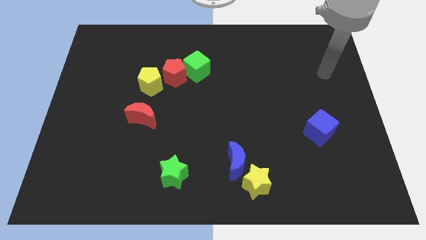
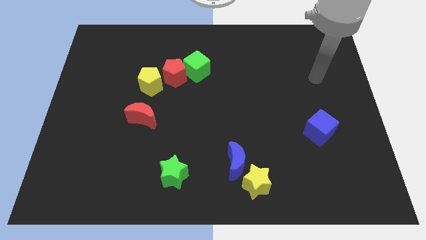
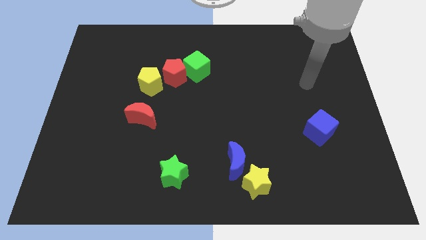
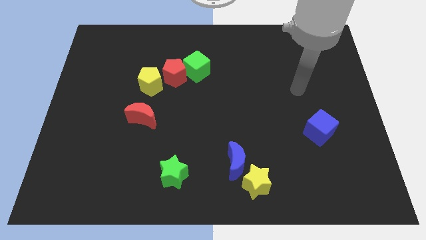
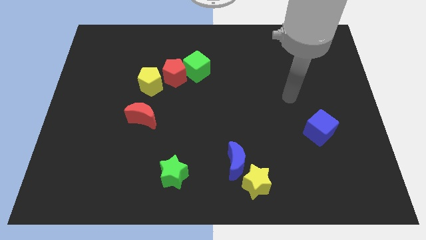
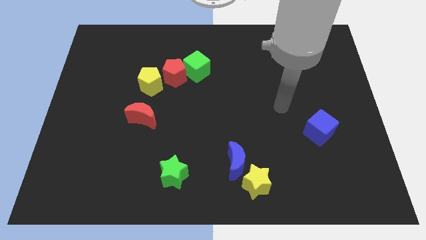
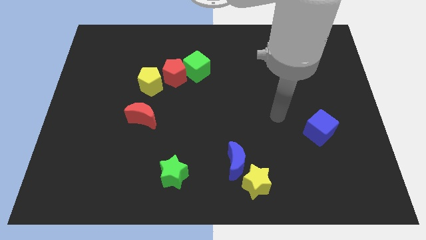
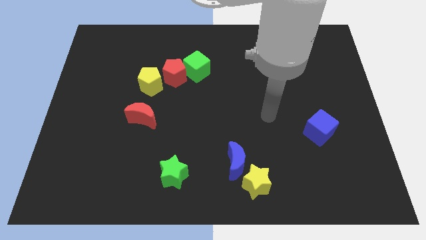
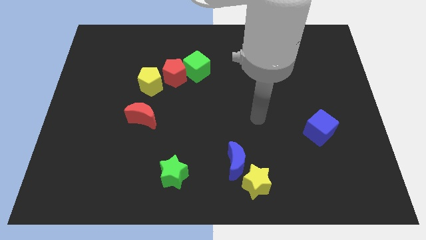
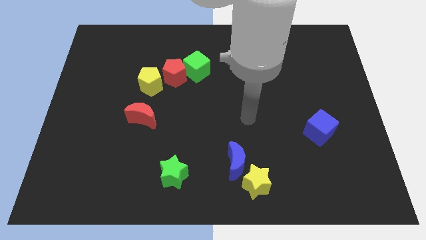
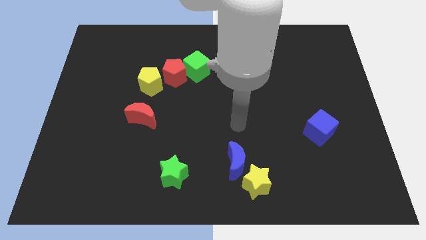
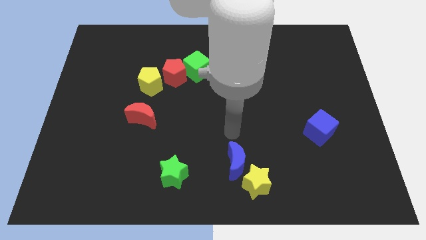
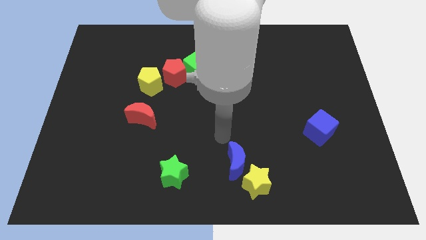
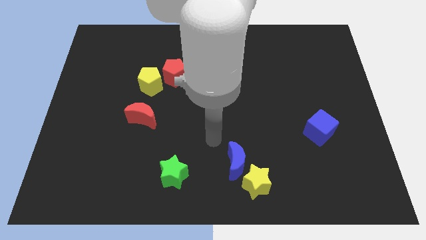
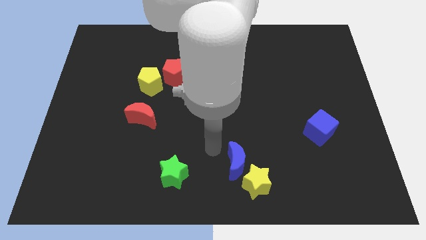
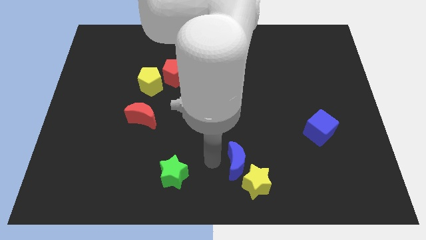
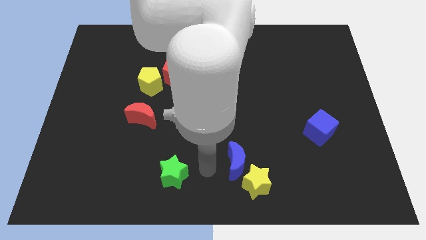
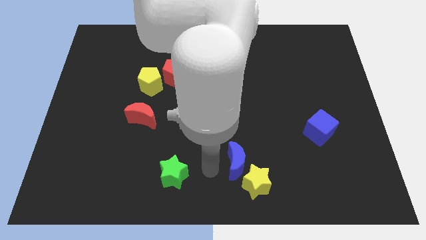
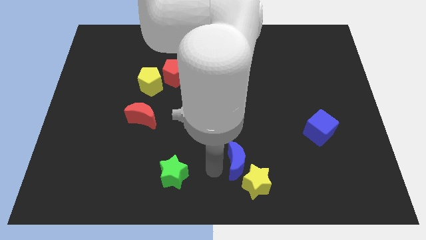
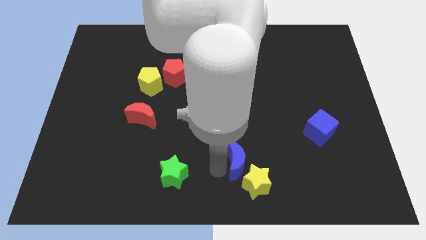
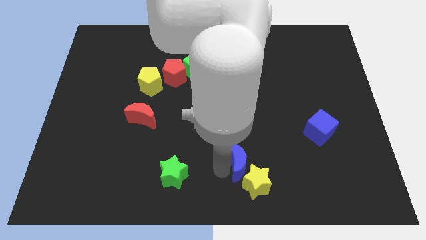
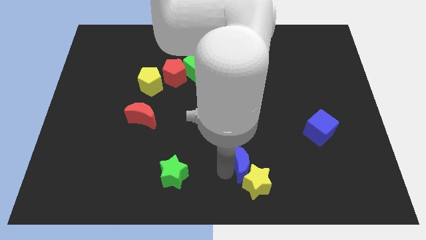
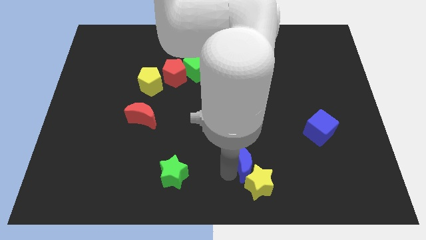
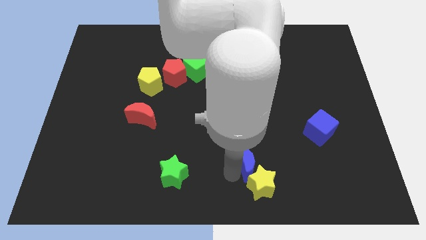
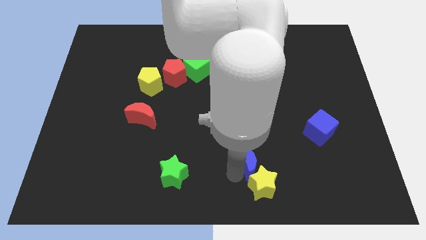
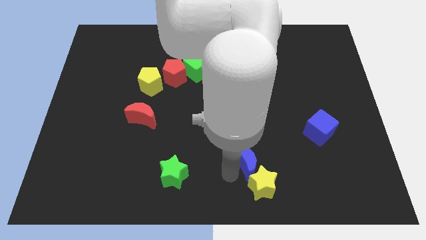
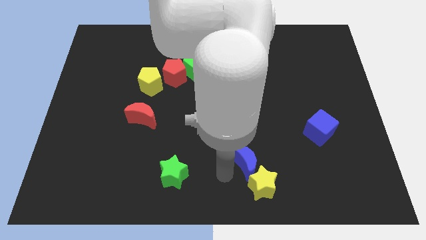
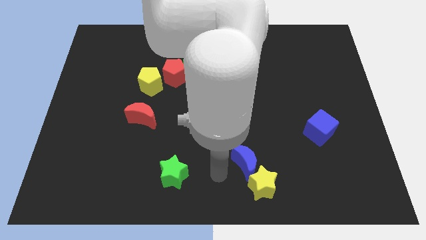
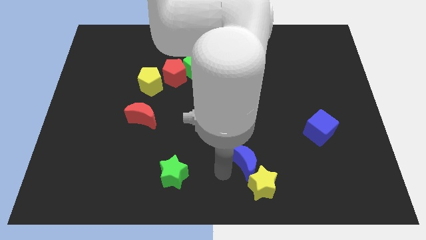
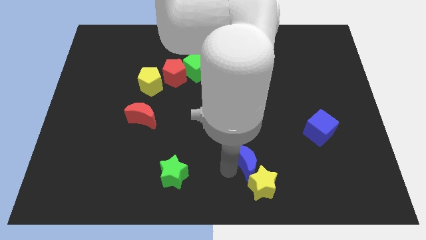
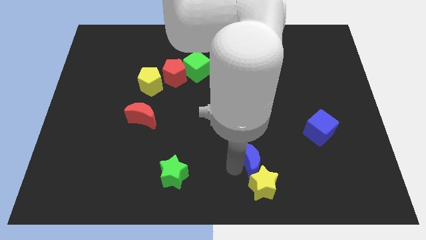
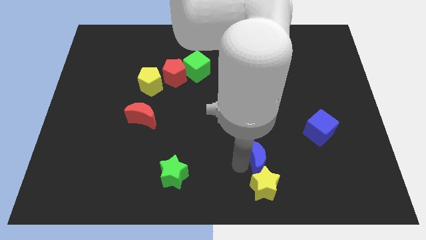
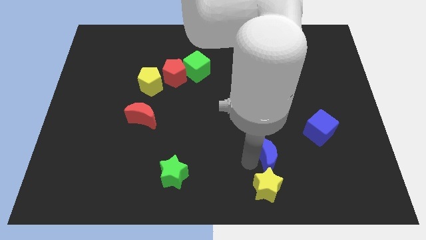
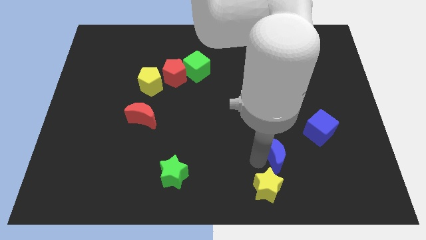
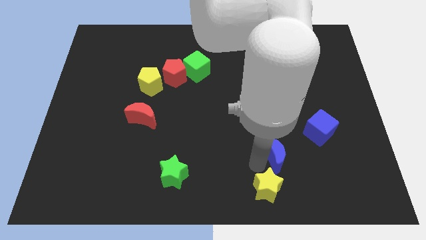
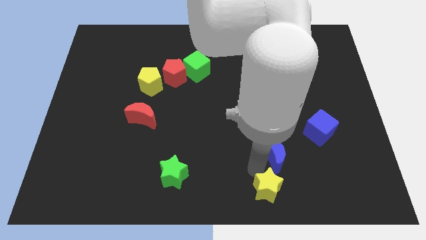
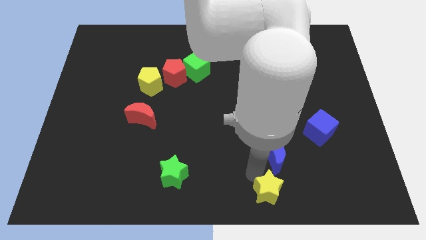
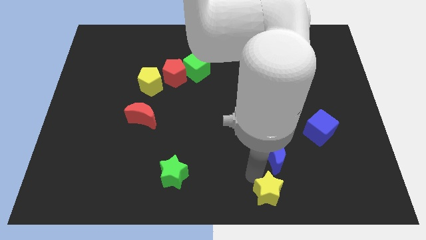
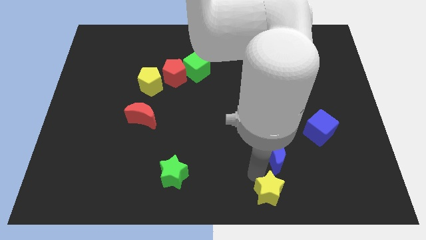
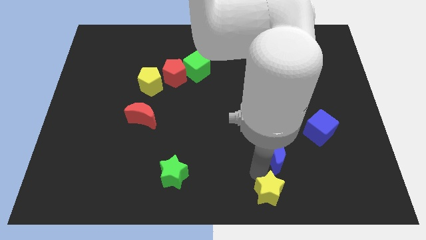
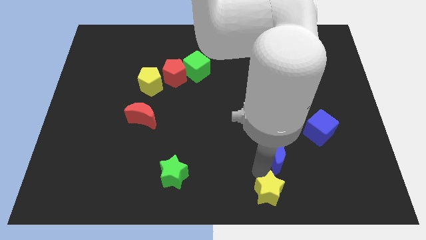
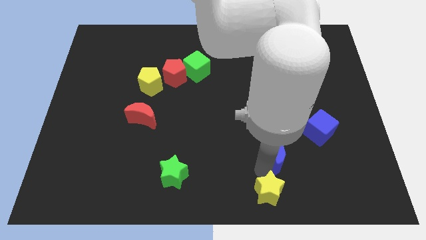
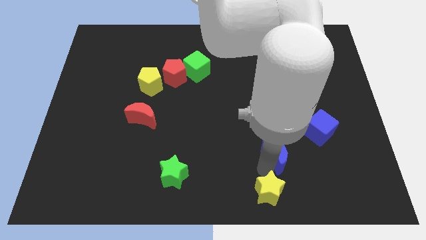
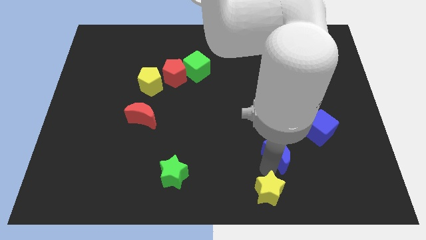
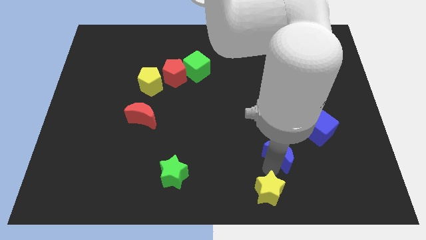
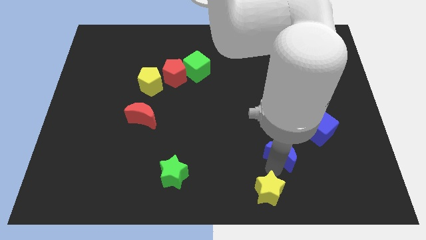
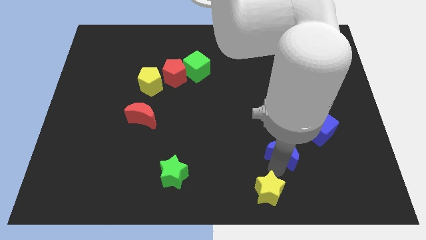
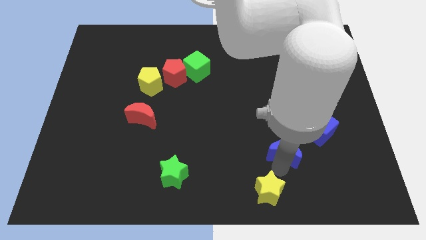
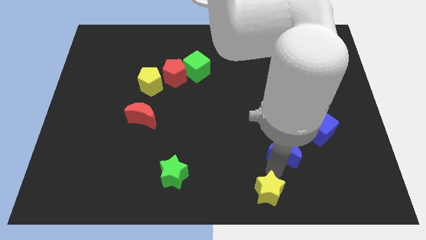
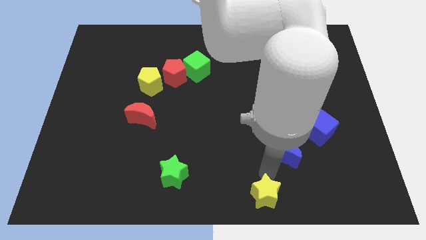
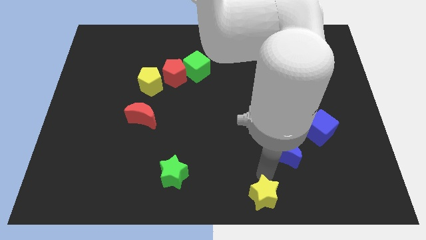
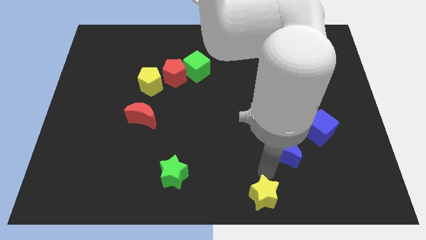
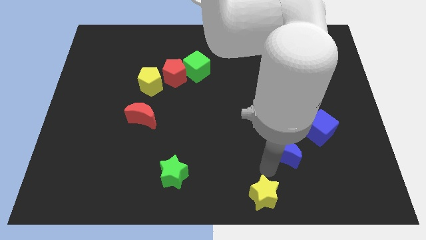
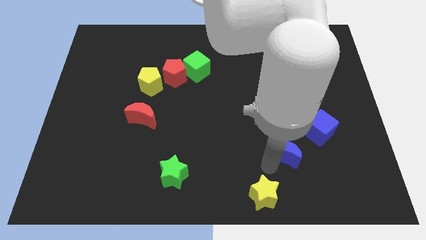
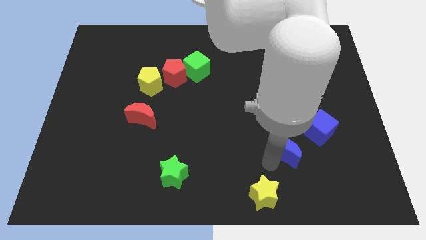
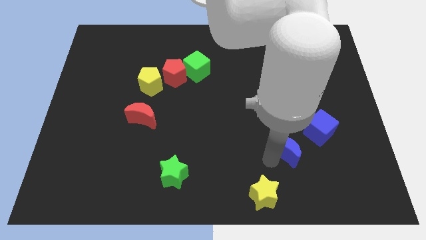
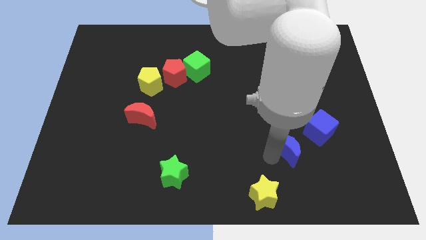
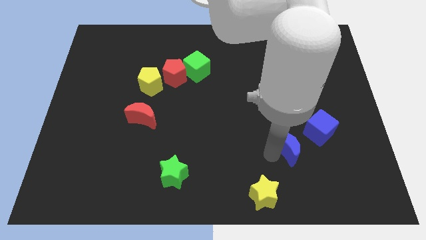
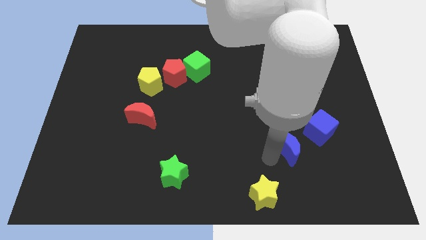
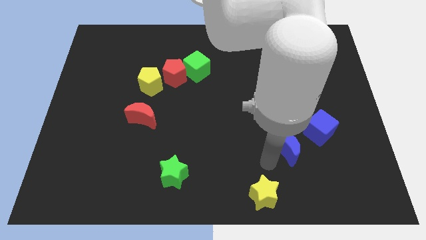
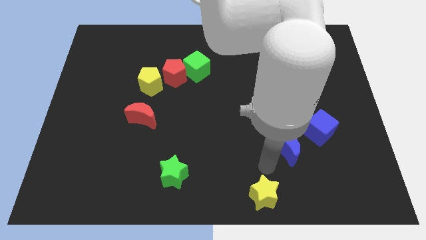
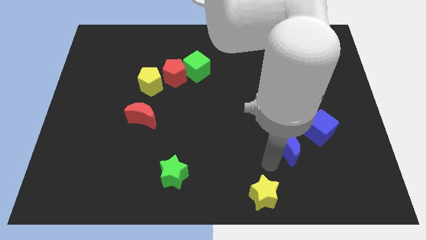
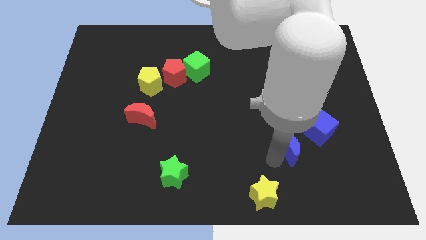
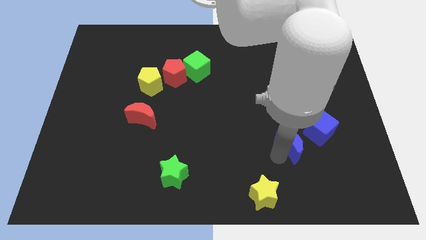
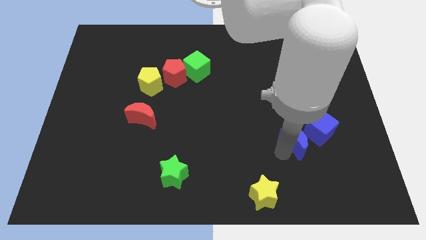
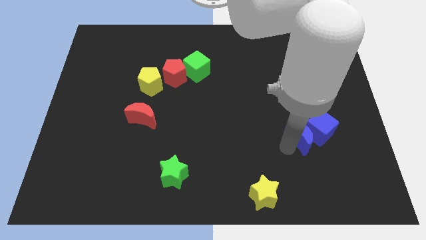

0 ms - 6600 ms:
push the blue moon to the blue cube

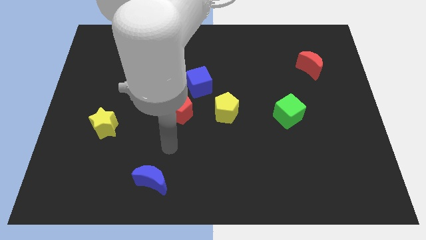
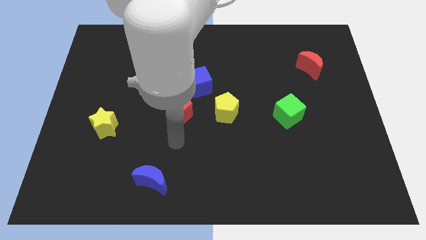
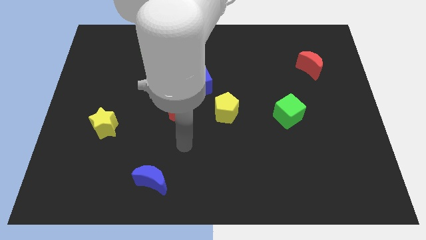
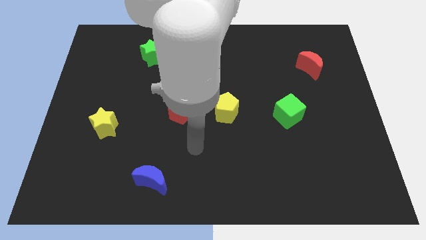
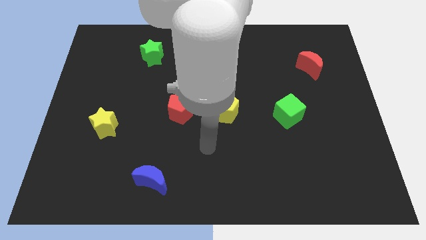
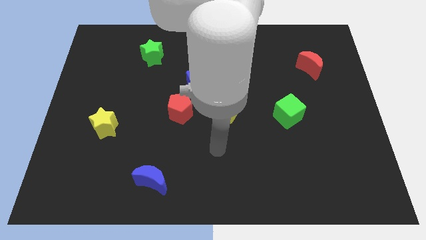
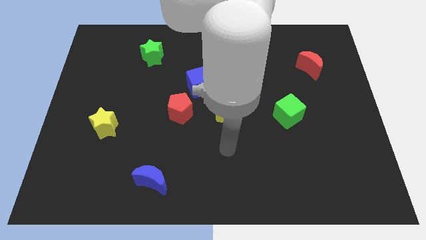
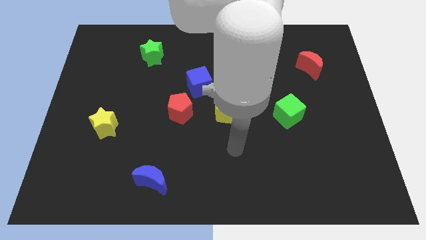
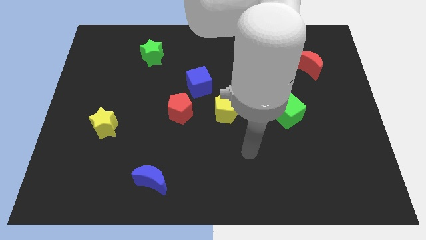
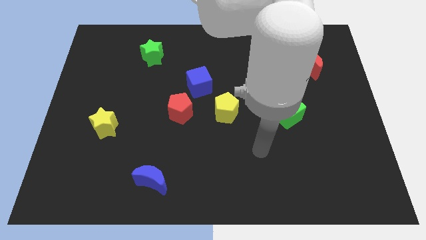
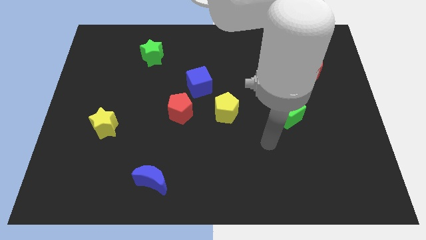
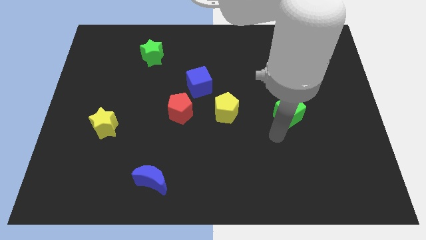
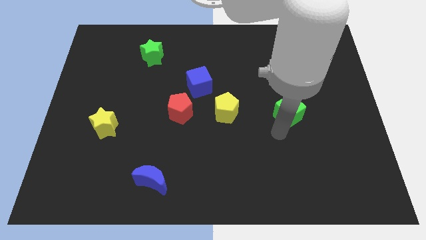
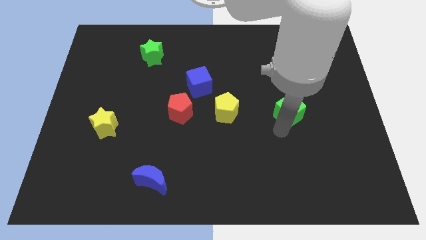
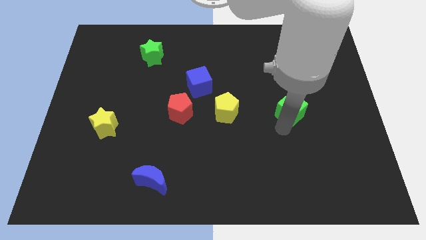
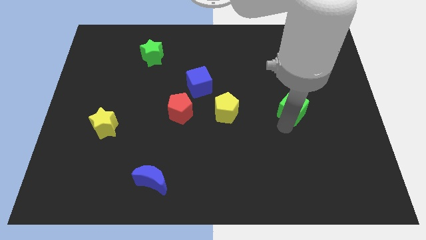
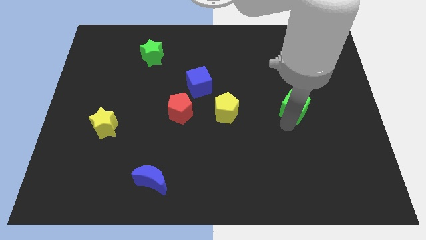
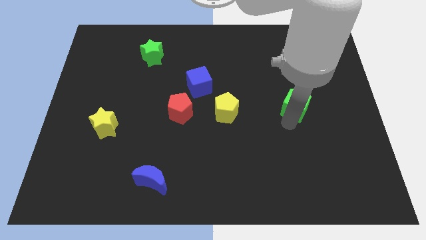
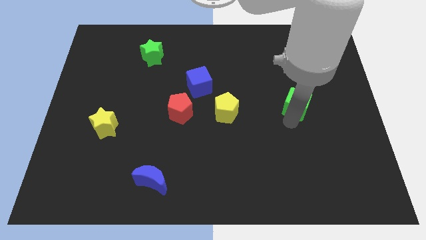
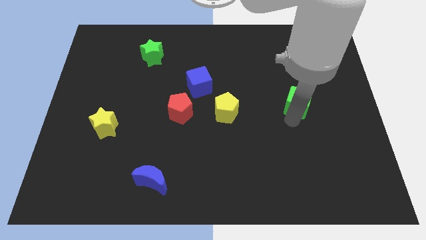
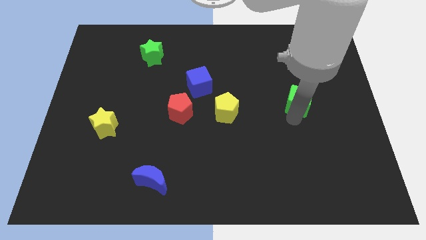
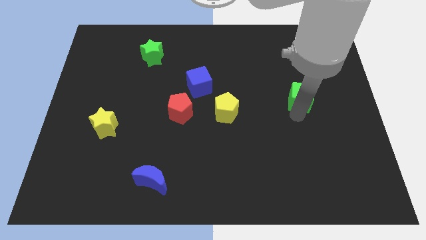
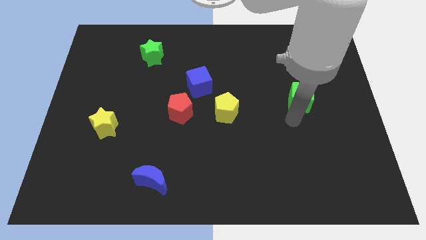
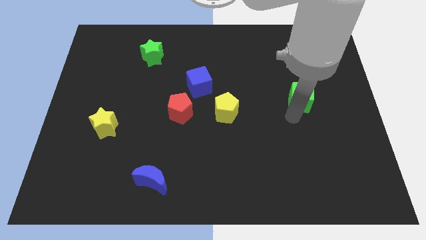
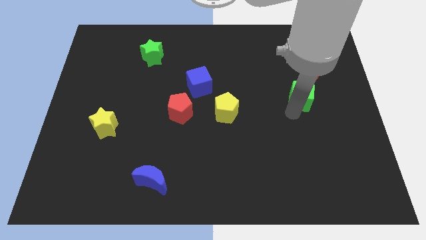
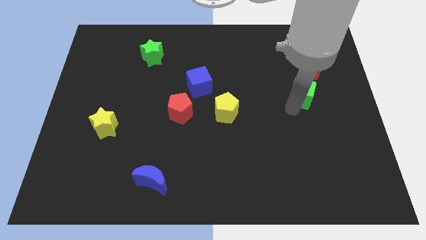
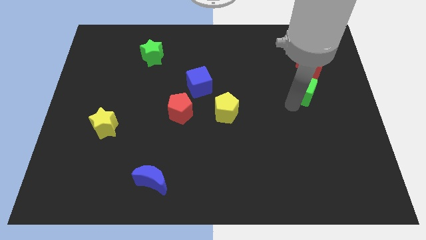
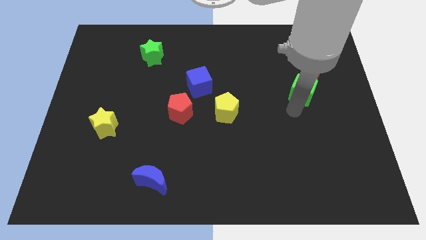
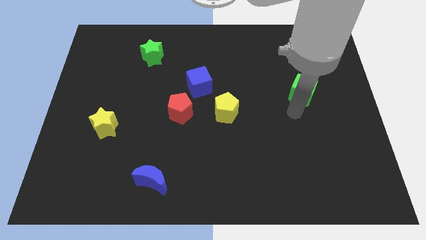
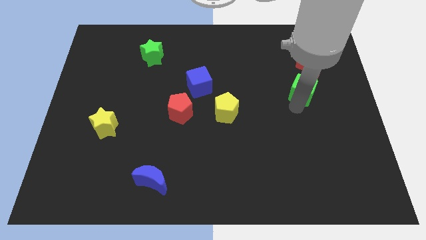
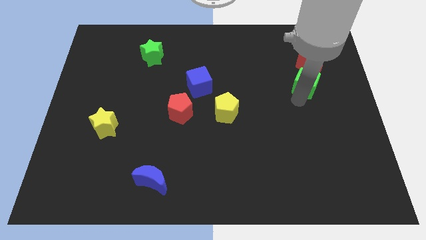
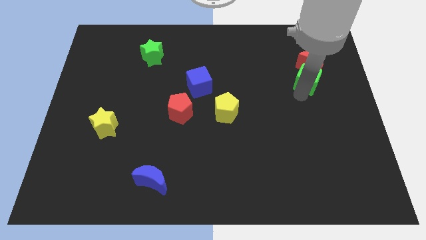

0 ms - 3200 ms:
put the green cube to the red moon
